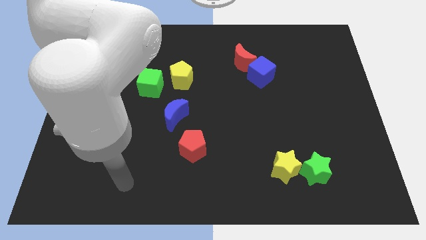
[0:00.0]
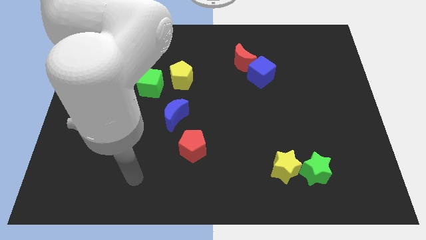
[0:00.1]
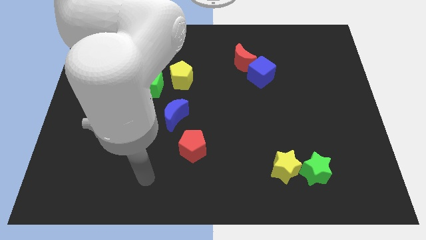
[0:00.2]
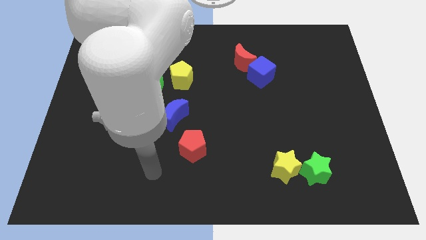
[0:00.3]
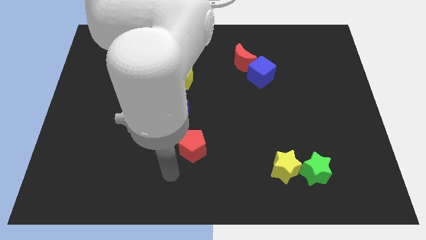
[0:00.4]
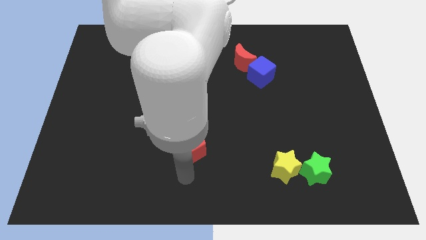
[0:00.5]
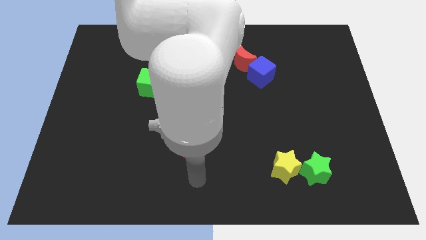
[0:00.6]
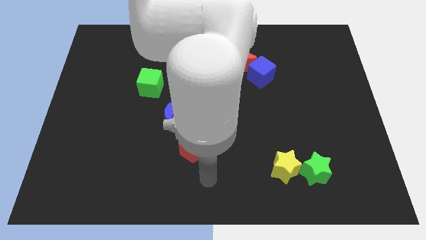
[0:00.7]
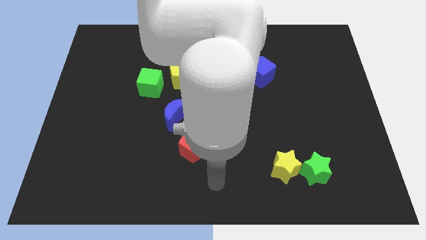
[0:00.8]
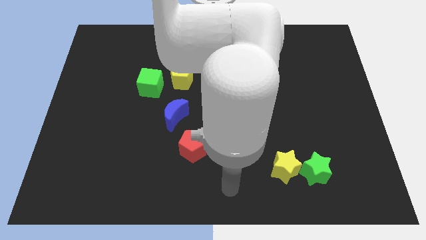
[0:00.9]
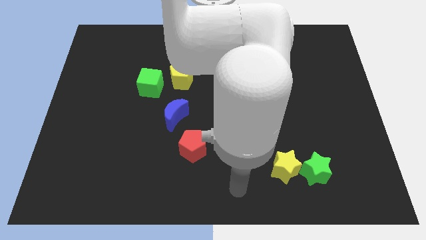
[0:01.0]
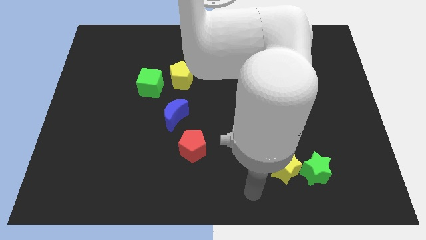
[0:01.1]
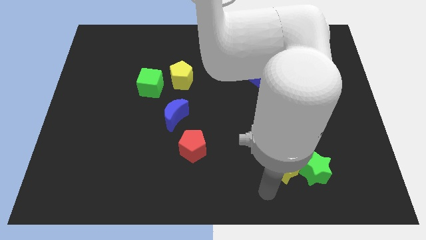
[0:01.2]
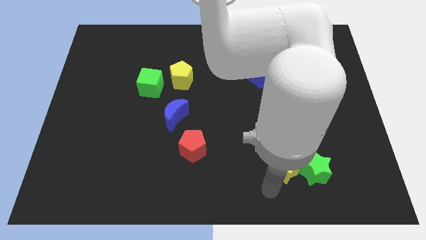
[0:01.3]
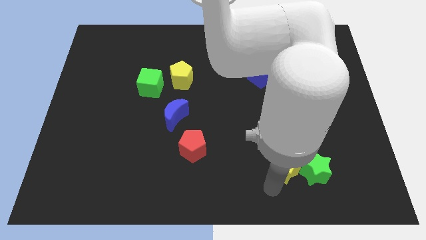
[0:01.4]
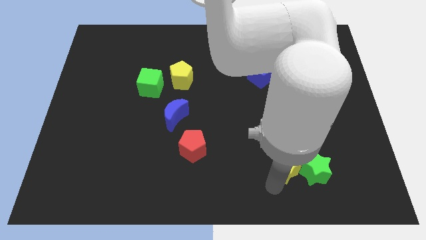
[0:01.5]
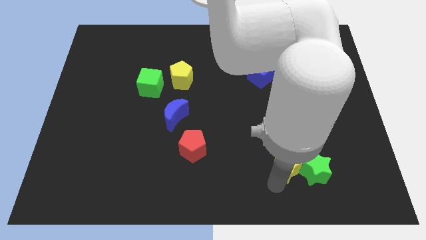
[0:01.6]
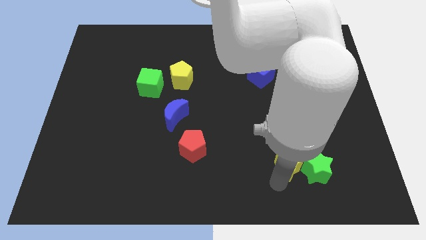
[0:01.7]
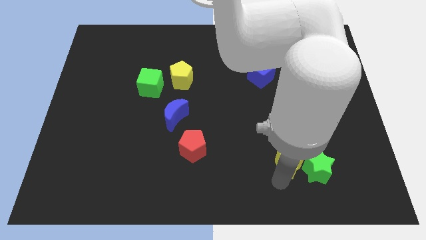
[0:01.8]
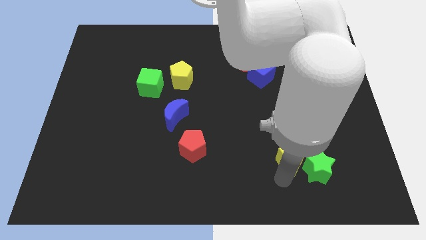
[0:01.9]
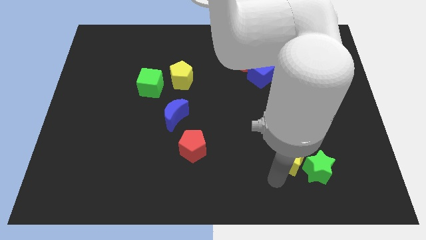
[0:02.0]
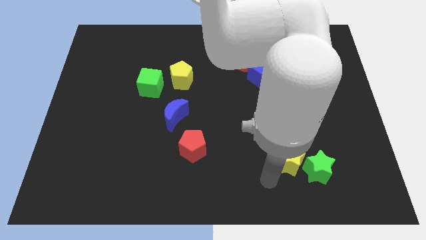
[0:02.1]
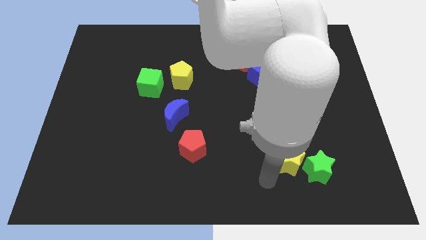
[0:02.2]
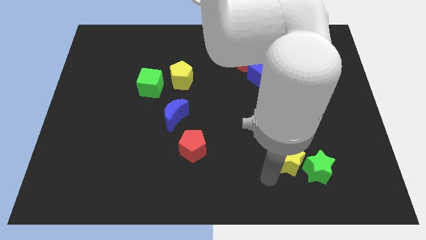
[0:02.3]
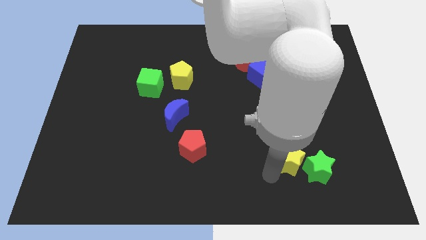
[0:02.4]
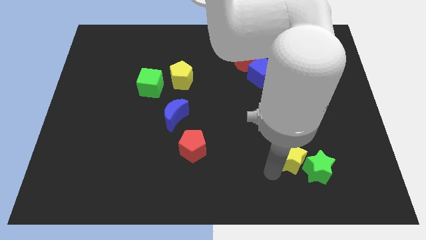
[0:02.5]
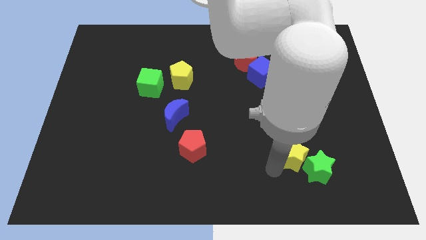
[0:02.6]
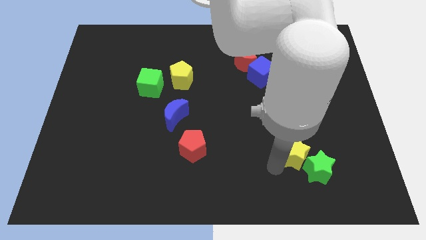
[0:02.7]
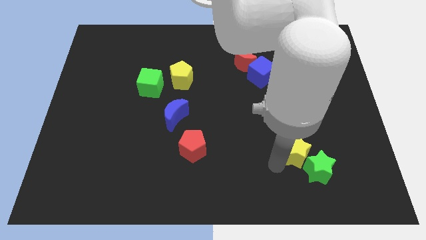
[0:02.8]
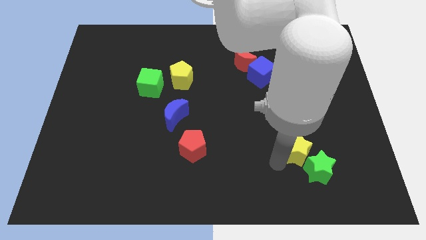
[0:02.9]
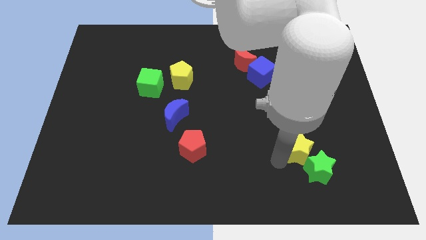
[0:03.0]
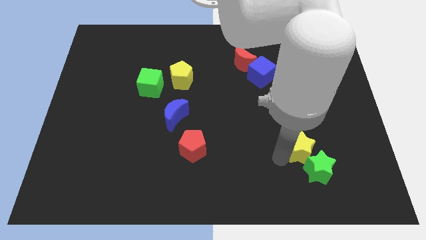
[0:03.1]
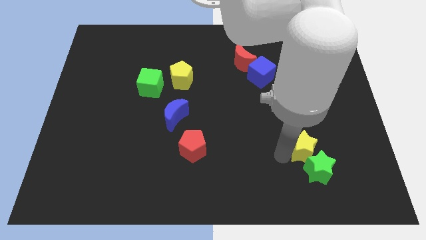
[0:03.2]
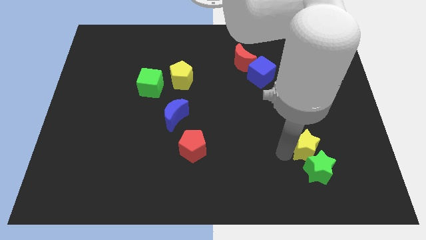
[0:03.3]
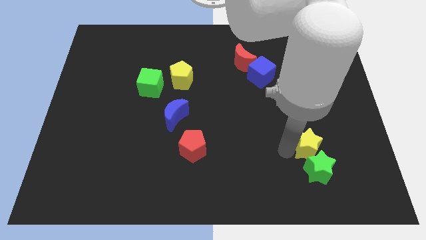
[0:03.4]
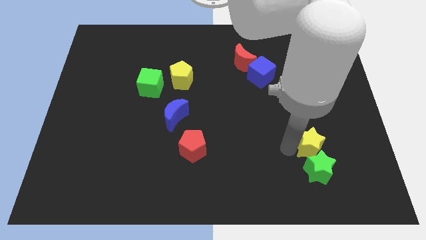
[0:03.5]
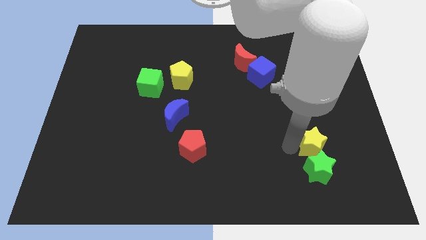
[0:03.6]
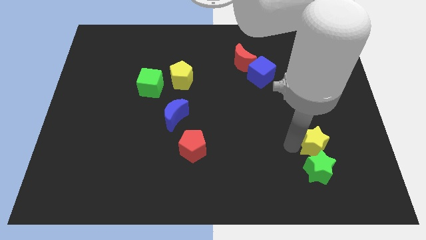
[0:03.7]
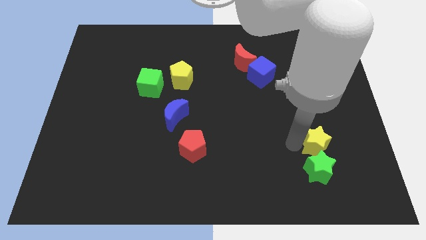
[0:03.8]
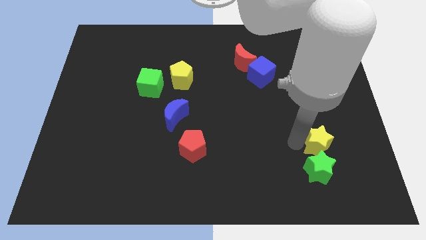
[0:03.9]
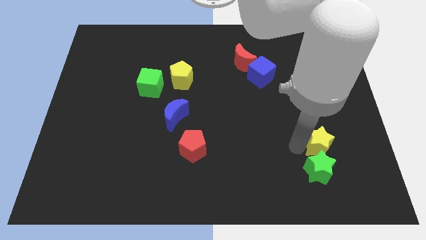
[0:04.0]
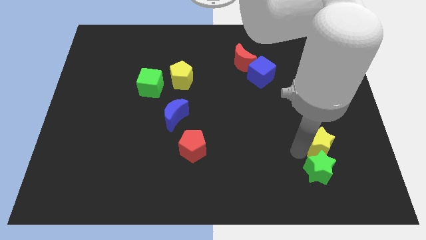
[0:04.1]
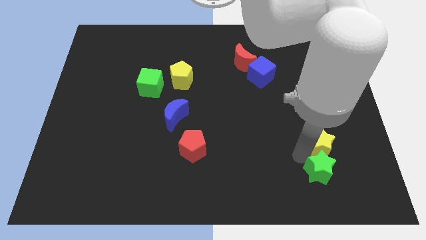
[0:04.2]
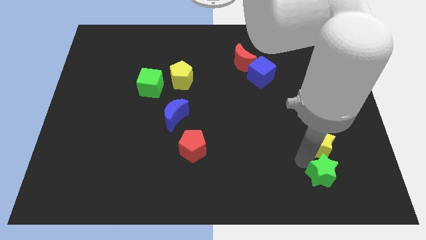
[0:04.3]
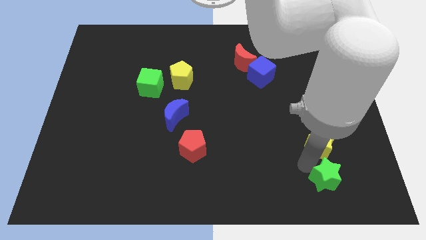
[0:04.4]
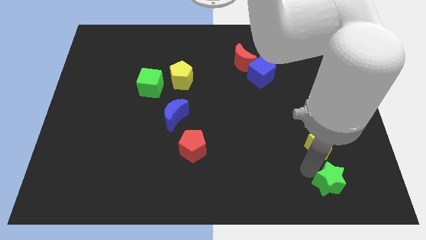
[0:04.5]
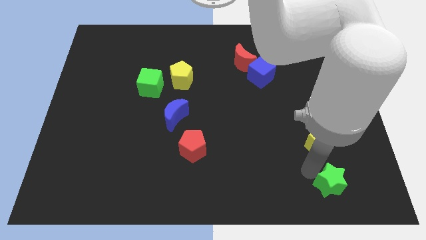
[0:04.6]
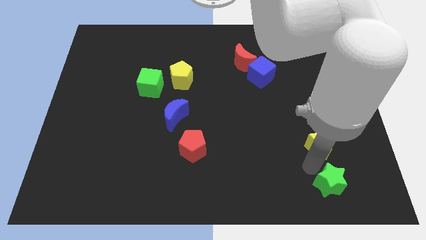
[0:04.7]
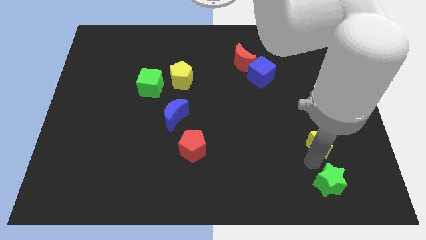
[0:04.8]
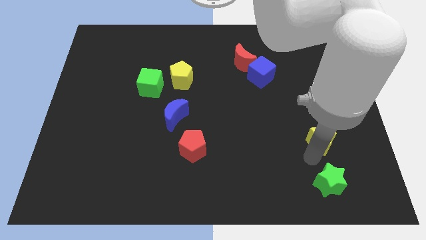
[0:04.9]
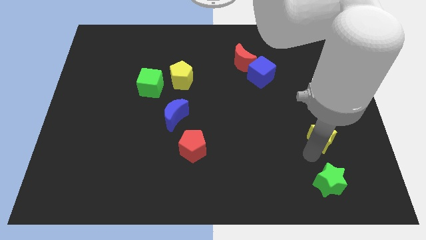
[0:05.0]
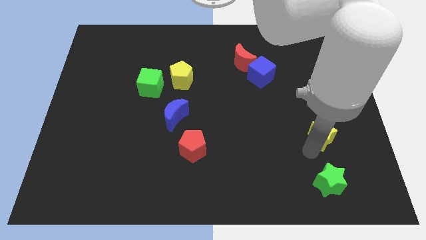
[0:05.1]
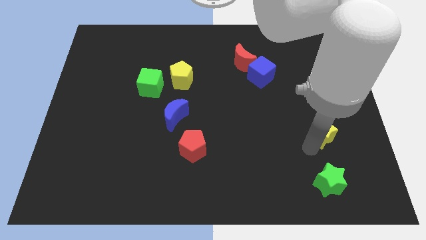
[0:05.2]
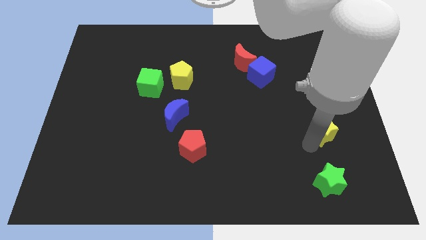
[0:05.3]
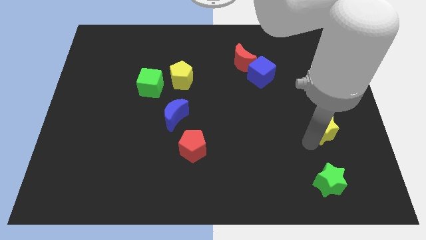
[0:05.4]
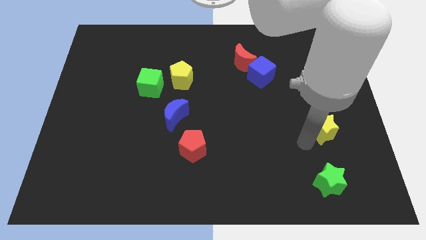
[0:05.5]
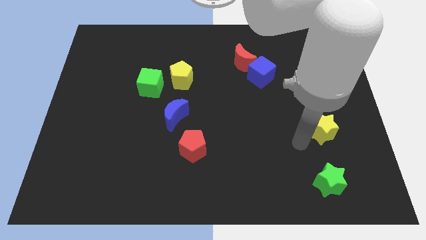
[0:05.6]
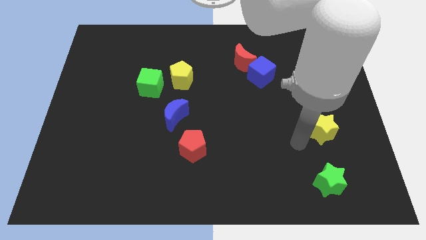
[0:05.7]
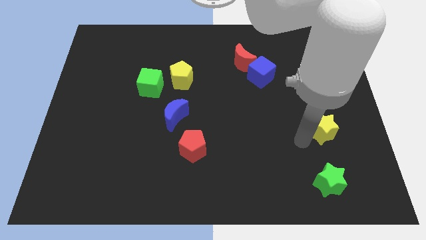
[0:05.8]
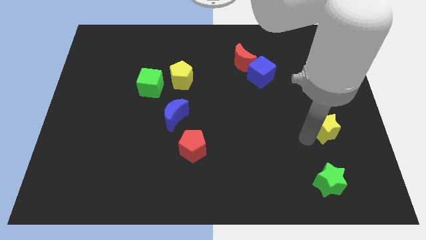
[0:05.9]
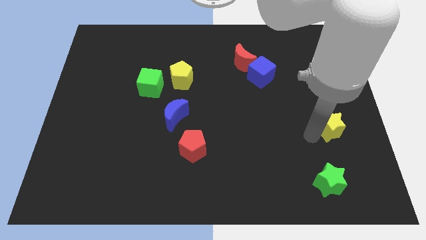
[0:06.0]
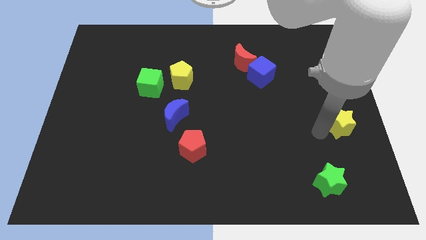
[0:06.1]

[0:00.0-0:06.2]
push the yellow star to the right side

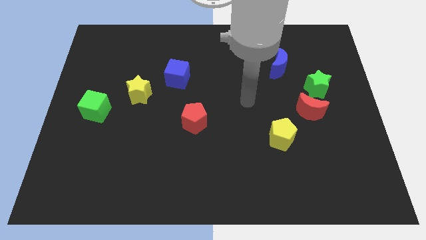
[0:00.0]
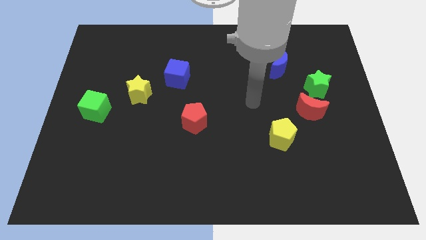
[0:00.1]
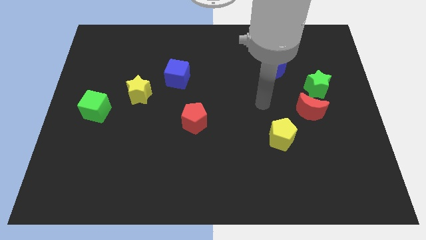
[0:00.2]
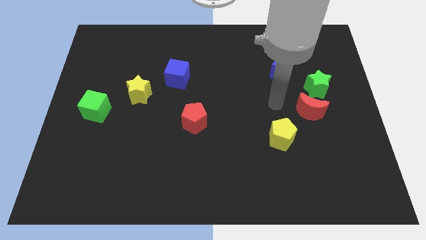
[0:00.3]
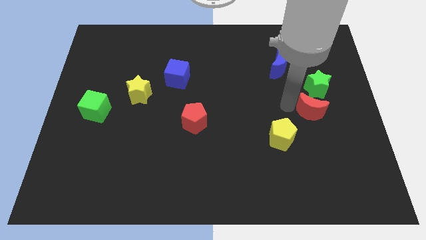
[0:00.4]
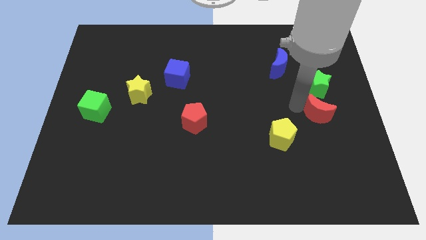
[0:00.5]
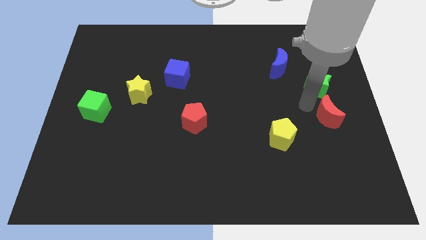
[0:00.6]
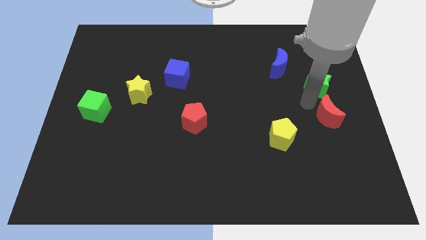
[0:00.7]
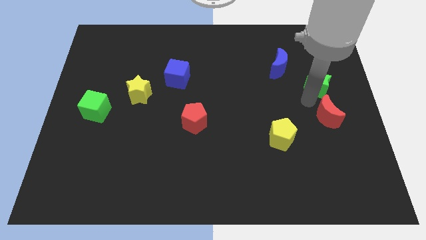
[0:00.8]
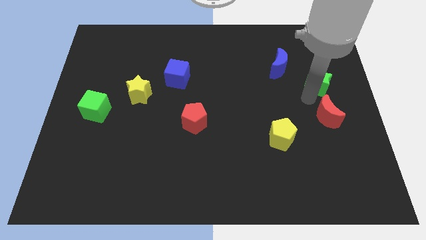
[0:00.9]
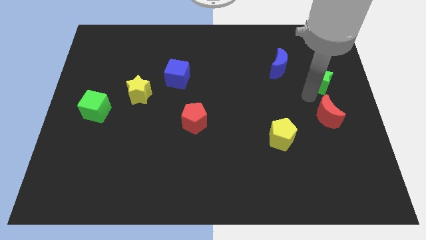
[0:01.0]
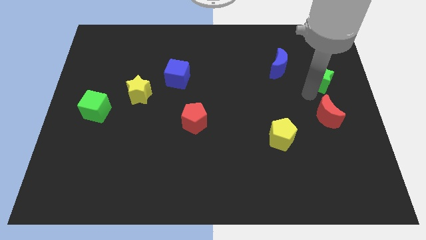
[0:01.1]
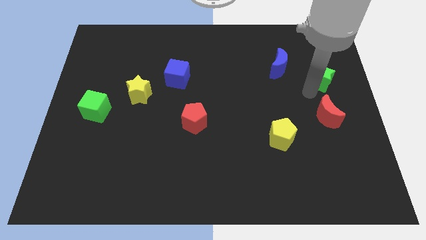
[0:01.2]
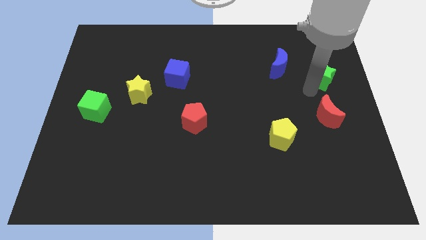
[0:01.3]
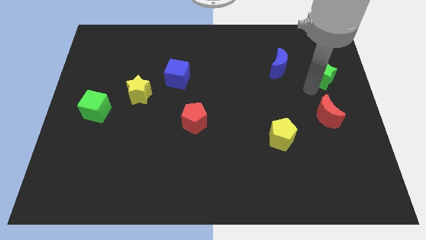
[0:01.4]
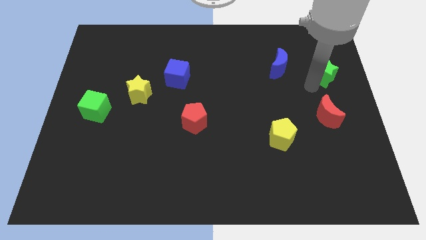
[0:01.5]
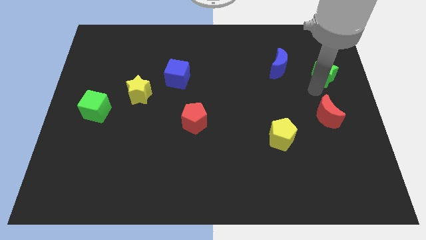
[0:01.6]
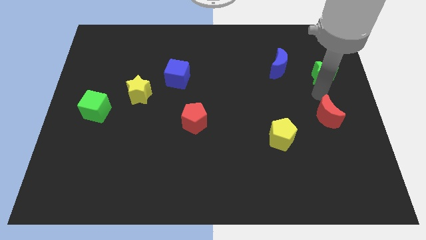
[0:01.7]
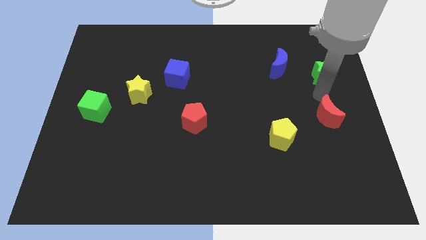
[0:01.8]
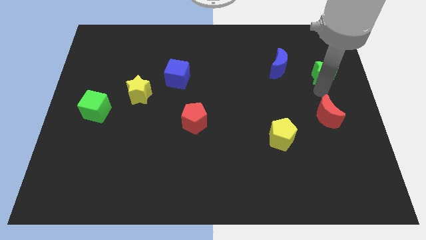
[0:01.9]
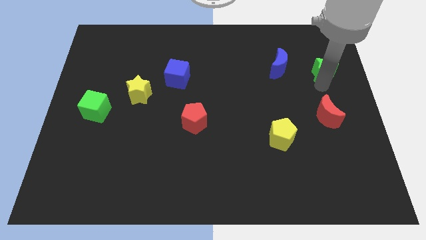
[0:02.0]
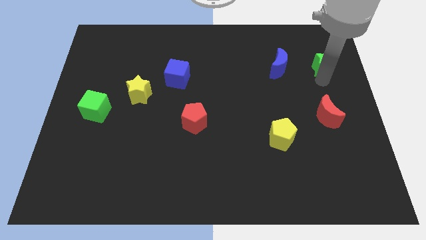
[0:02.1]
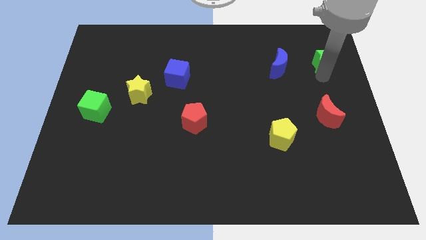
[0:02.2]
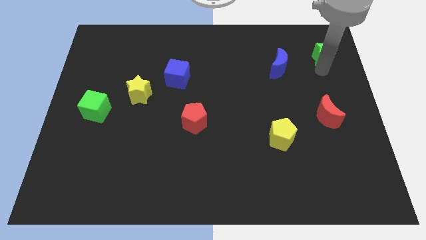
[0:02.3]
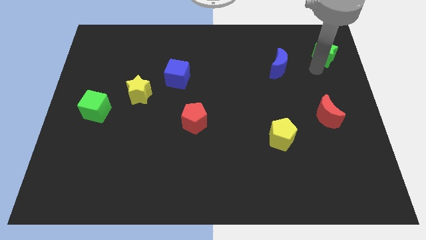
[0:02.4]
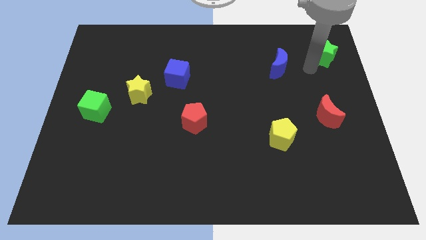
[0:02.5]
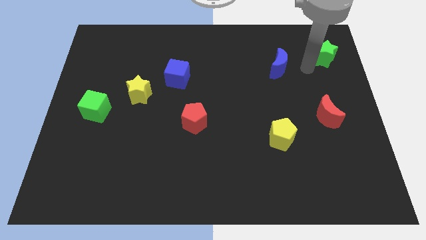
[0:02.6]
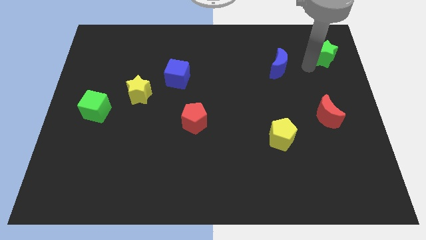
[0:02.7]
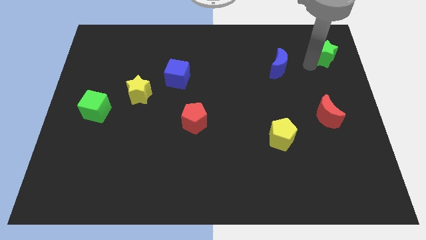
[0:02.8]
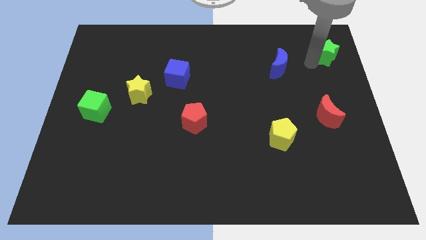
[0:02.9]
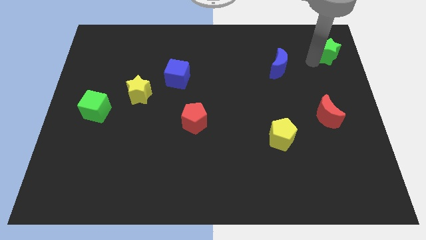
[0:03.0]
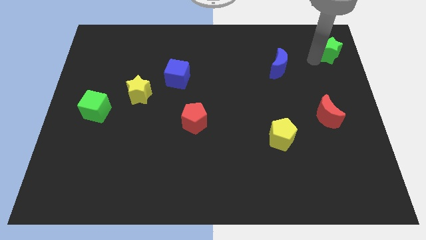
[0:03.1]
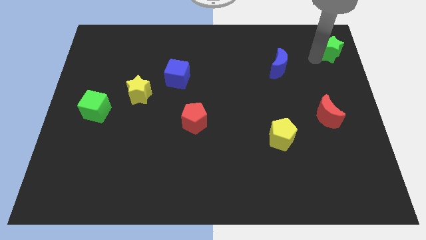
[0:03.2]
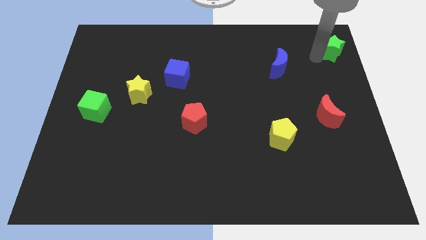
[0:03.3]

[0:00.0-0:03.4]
move the green star to the top right
